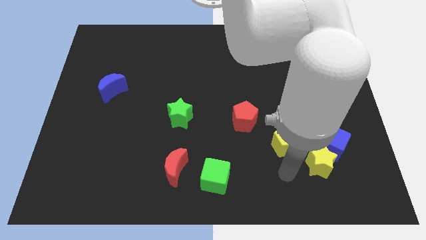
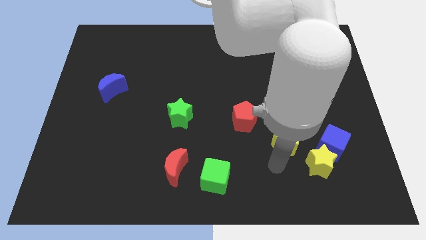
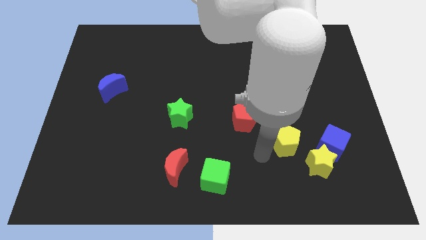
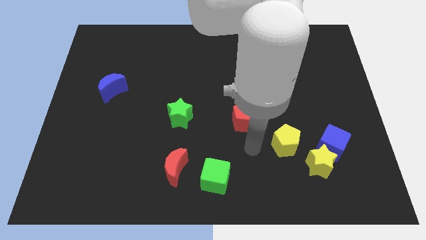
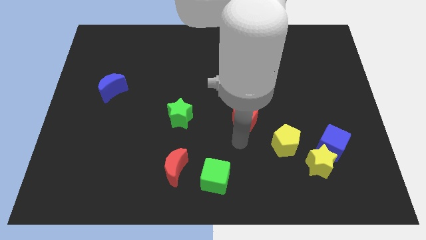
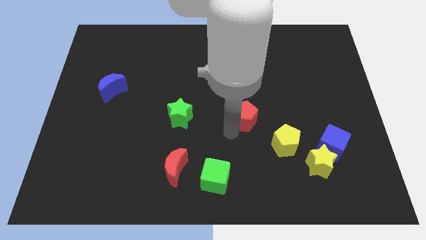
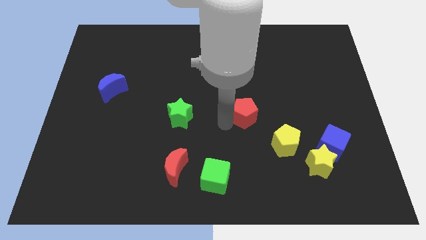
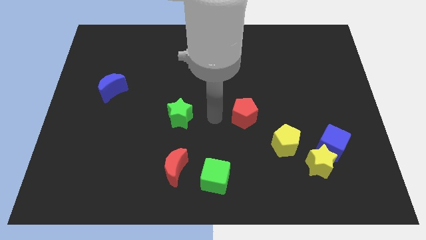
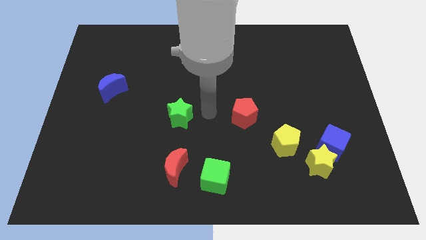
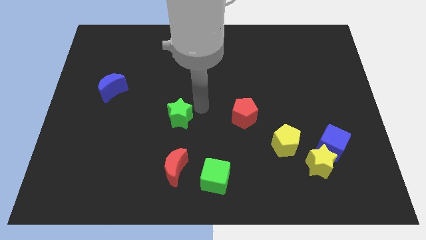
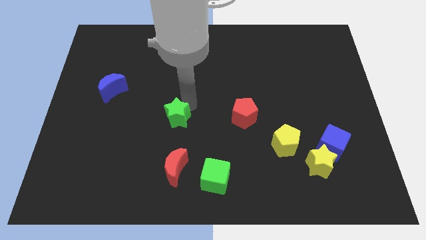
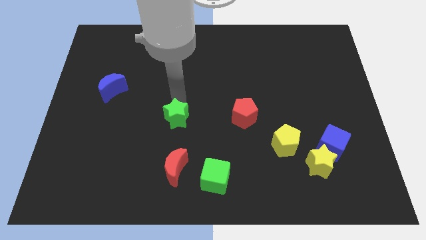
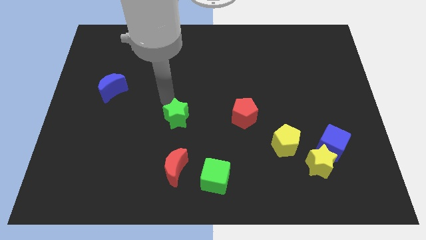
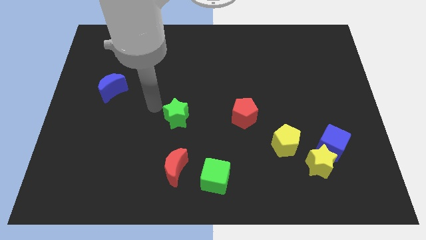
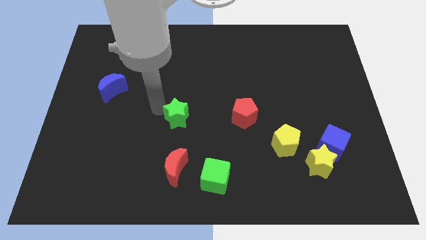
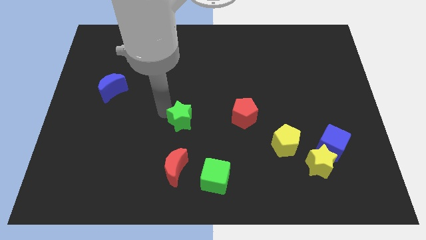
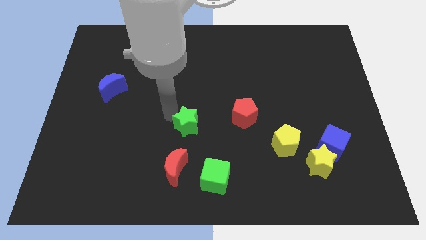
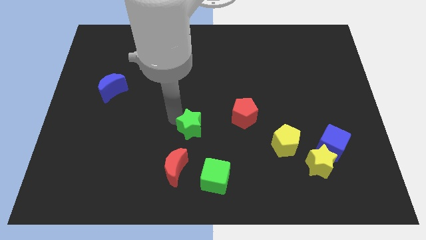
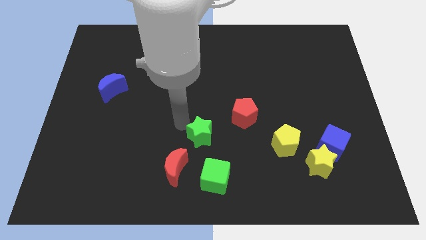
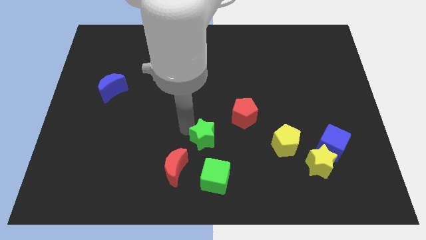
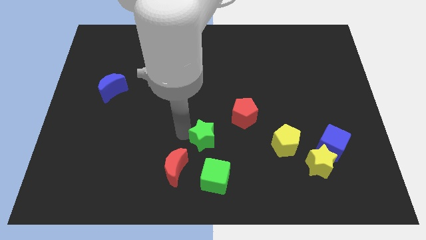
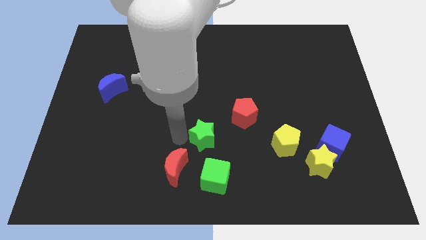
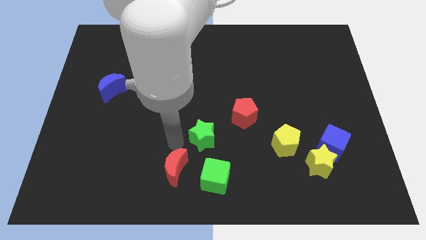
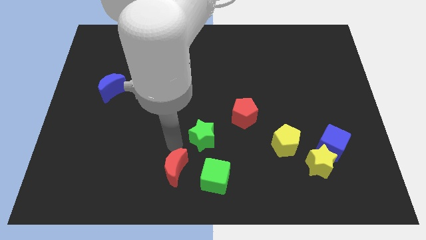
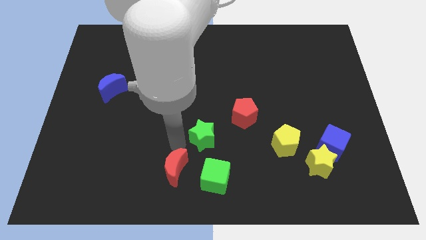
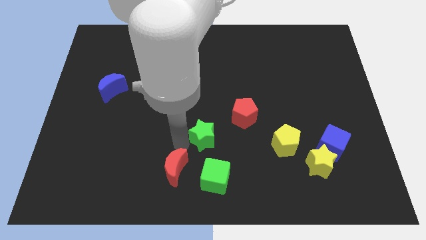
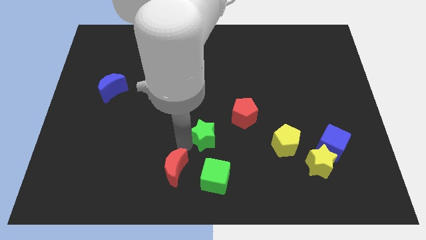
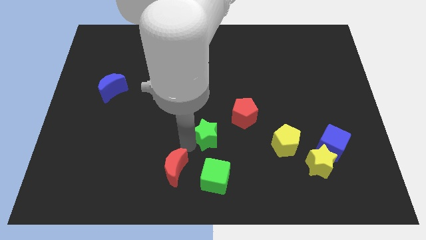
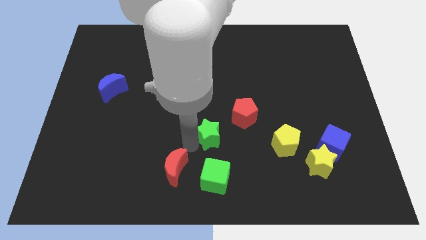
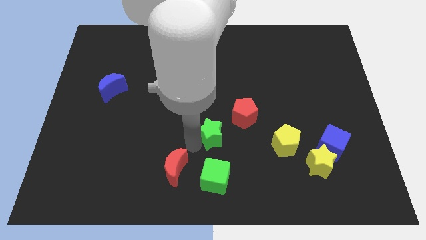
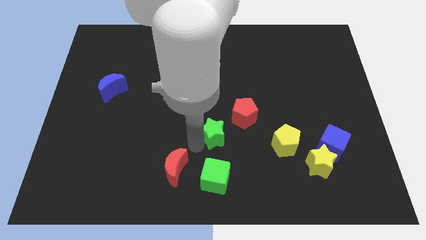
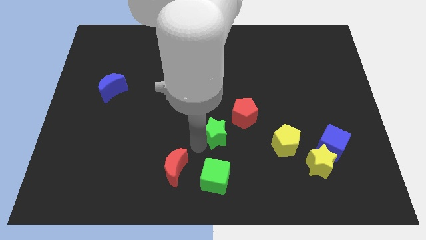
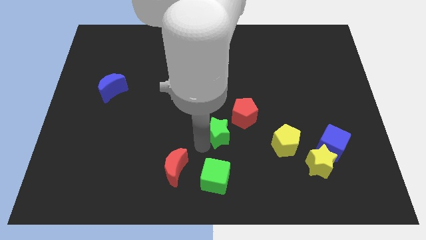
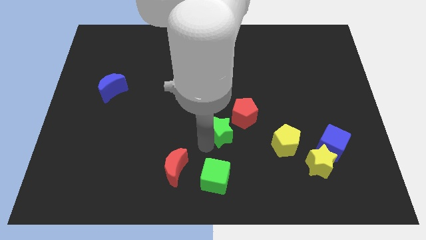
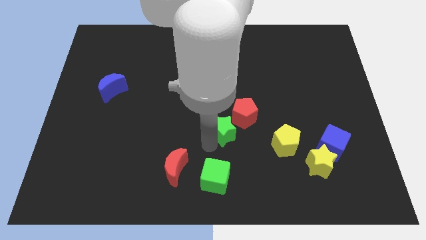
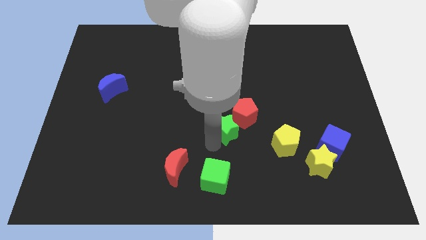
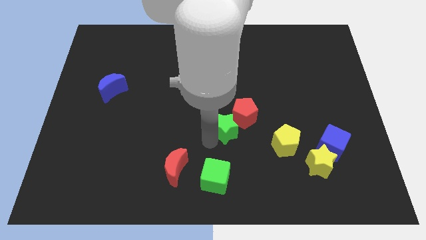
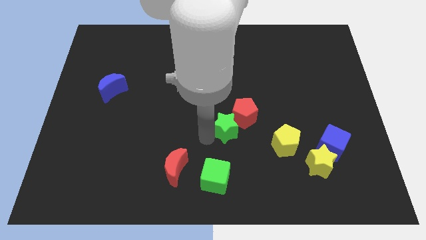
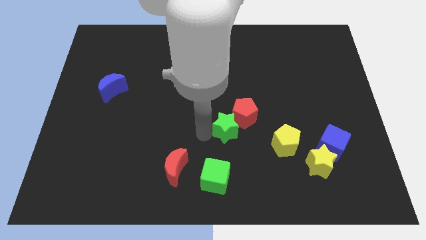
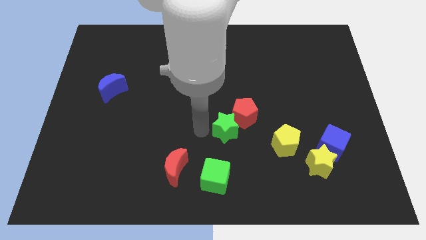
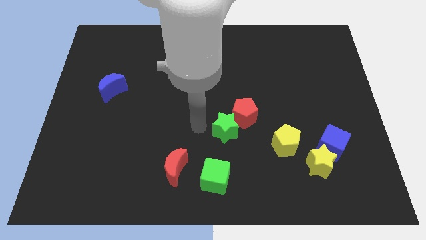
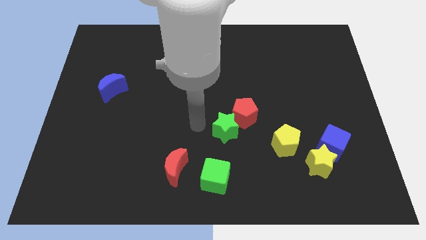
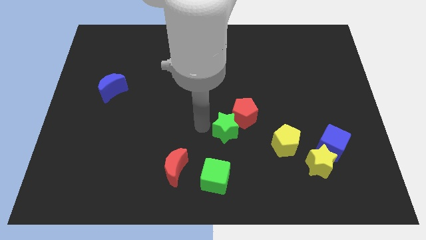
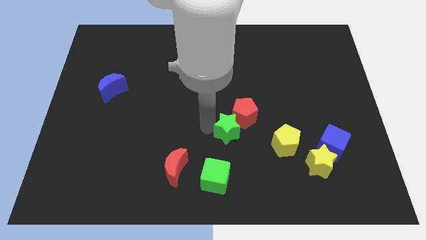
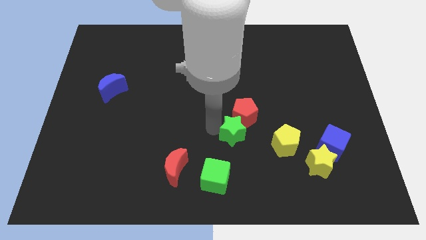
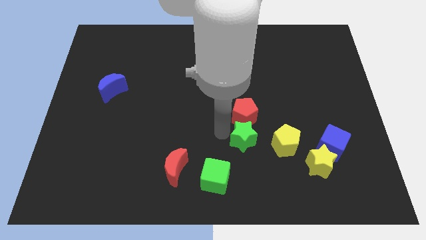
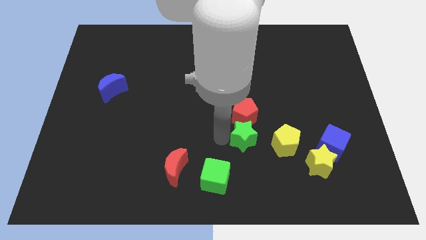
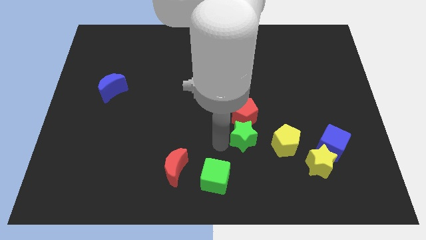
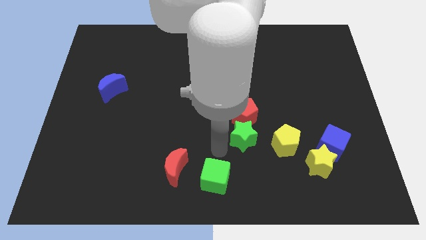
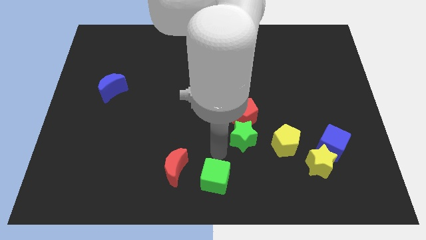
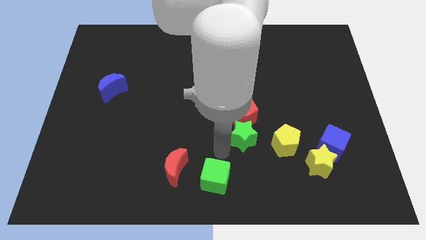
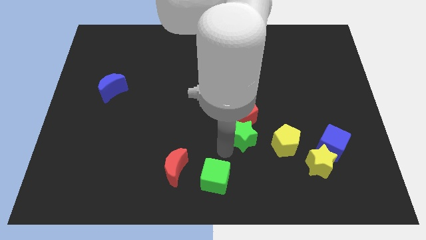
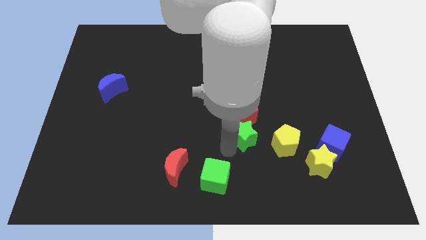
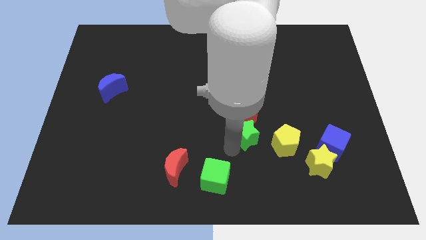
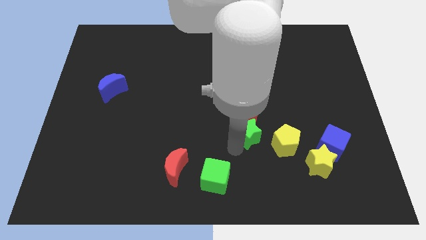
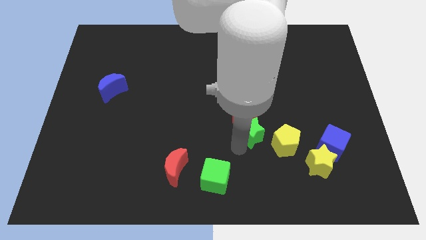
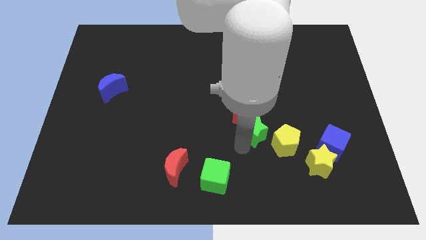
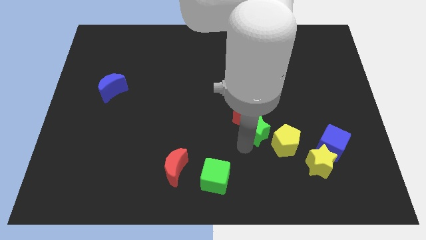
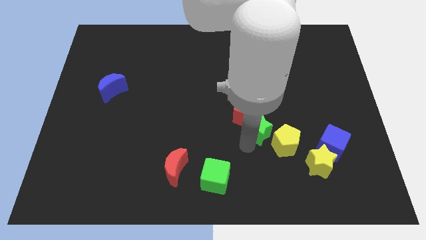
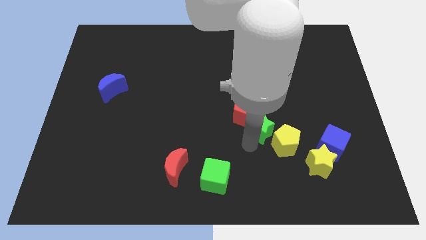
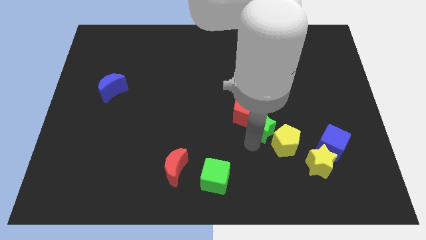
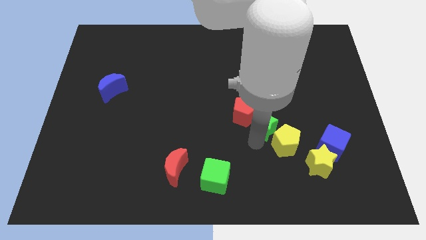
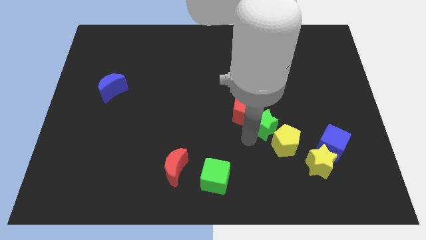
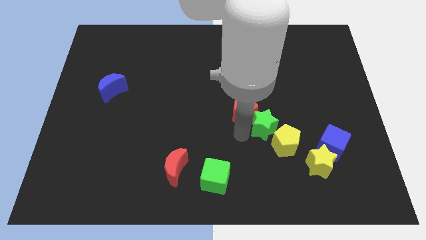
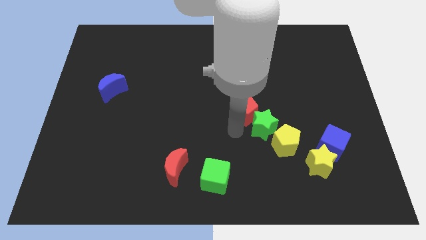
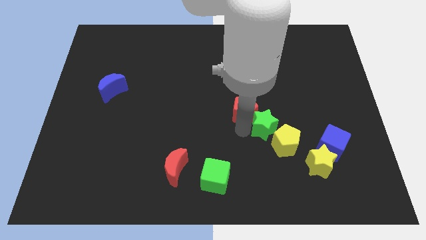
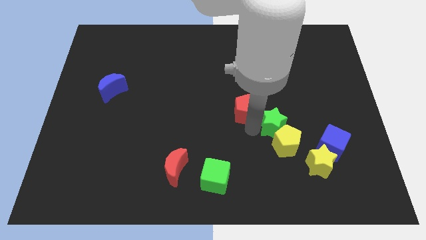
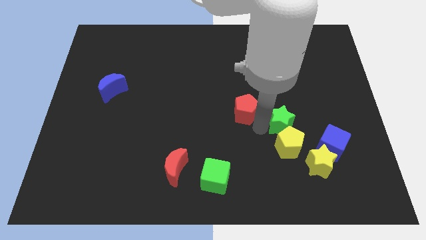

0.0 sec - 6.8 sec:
slide the green star diagonally up and to the right of the yellow pentagon

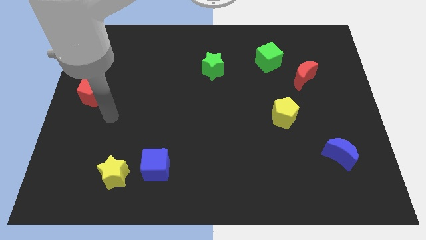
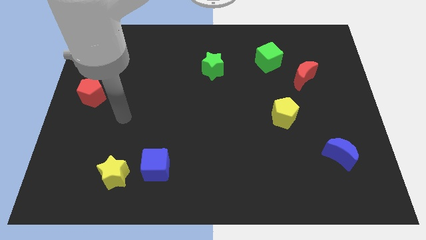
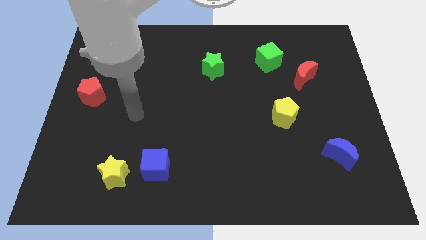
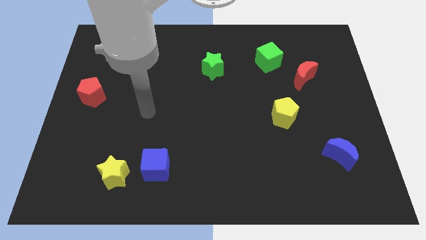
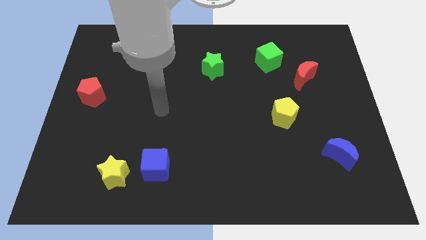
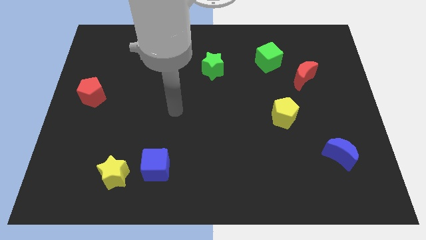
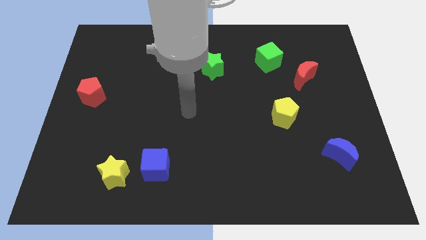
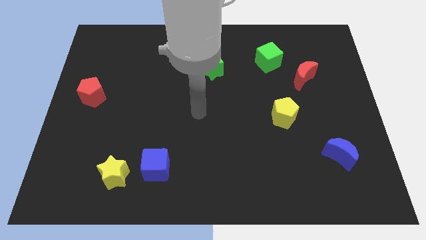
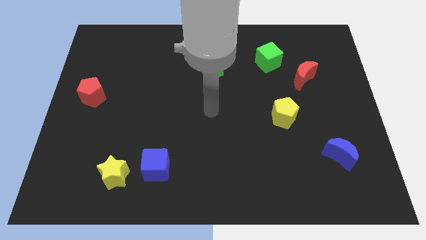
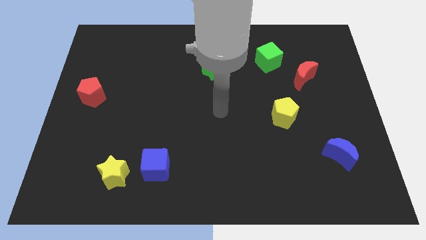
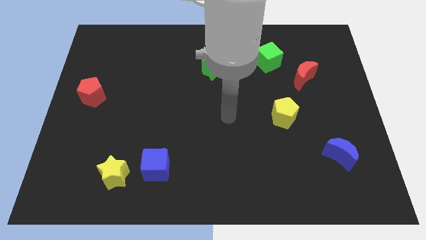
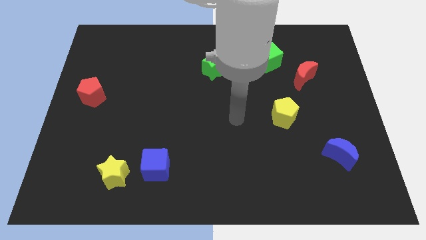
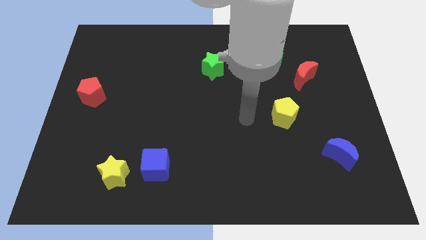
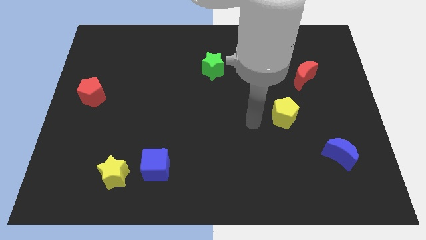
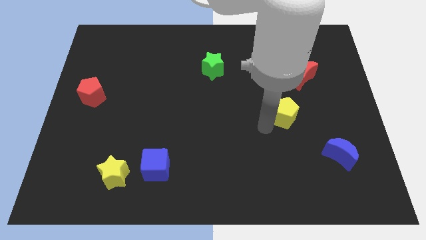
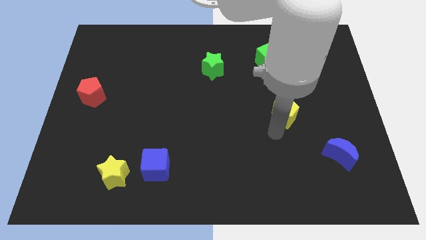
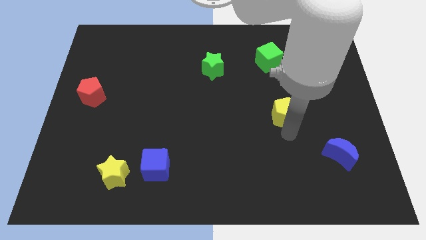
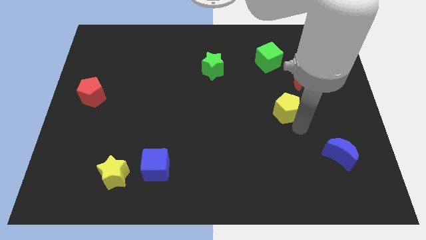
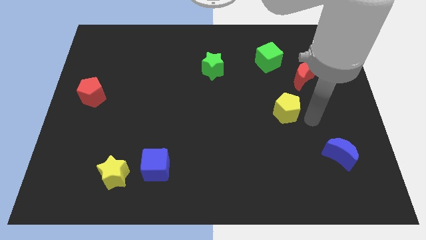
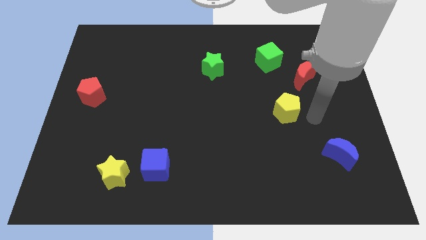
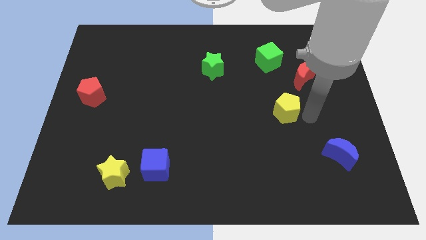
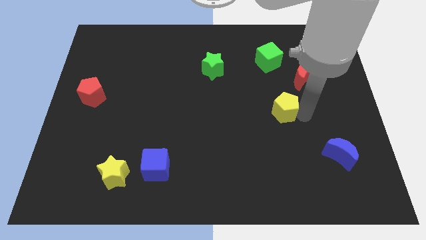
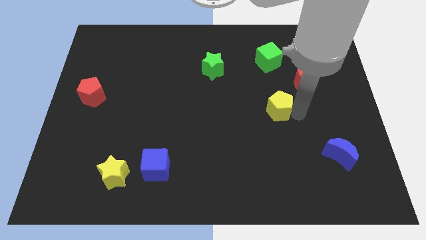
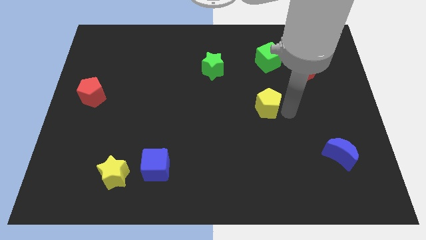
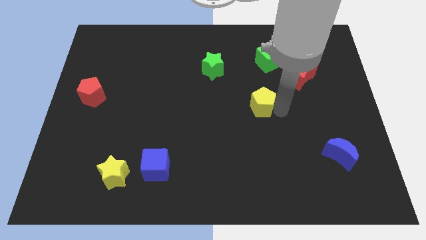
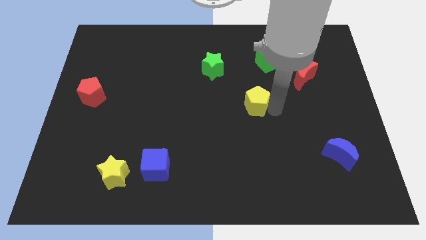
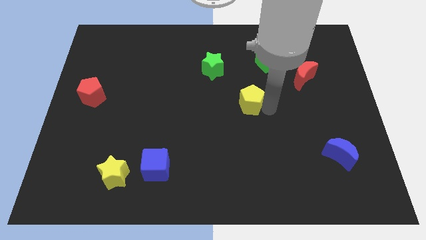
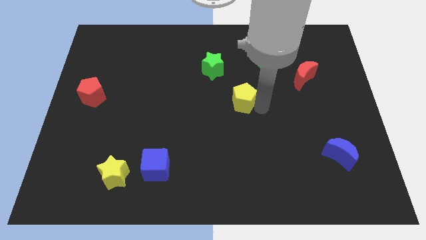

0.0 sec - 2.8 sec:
move the yellow pentagon to the bottom right side of the green star
